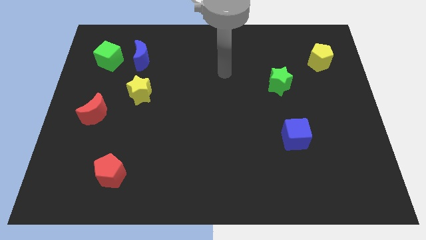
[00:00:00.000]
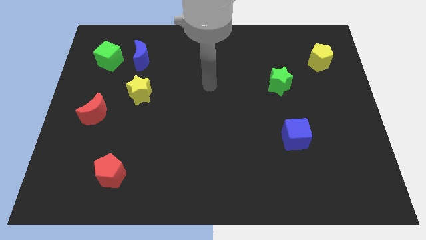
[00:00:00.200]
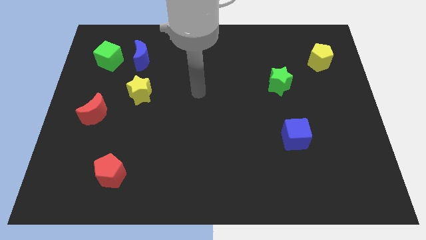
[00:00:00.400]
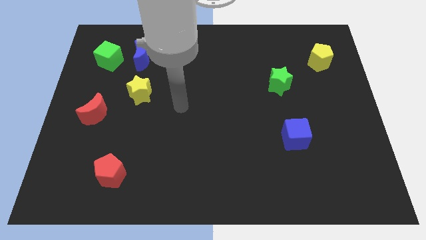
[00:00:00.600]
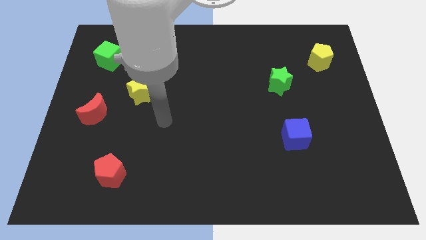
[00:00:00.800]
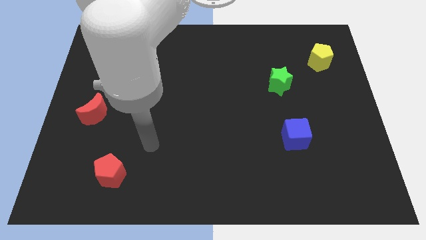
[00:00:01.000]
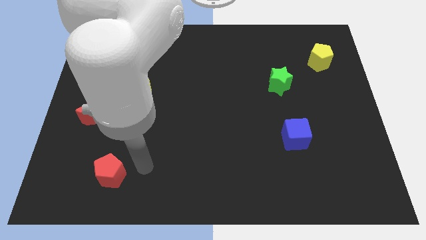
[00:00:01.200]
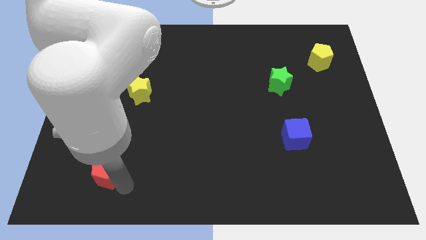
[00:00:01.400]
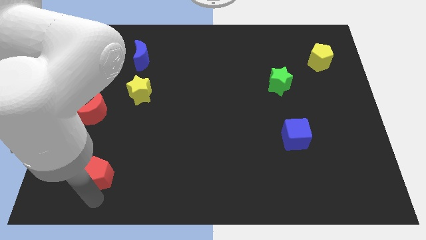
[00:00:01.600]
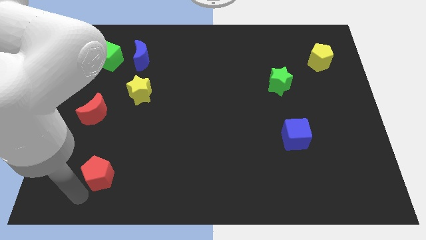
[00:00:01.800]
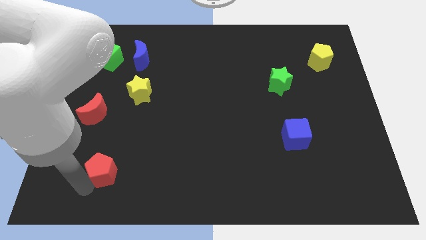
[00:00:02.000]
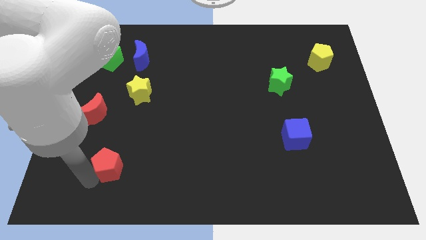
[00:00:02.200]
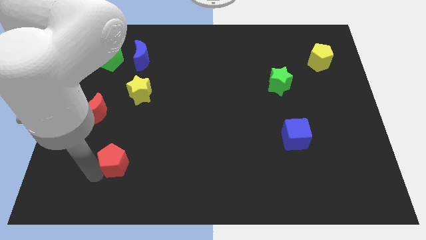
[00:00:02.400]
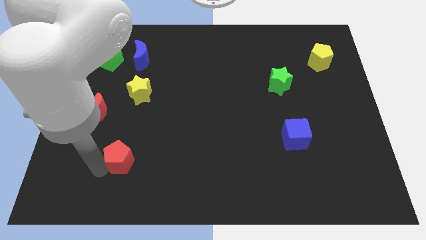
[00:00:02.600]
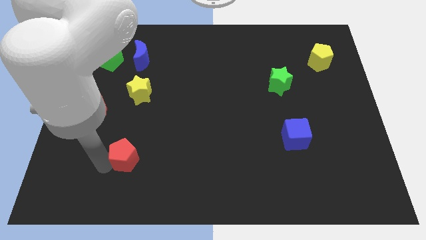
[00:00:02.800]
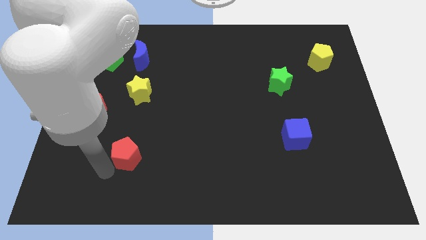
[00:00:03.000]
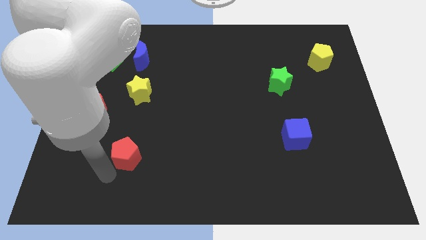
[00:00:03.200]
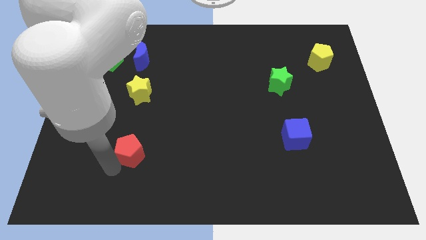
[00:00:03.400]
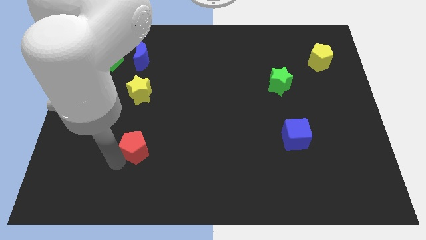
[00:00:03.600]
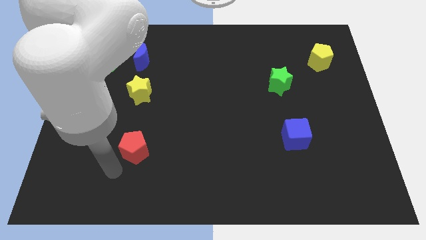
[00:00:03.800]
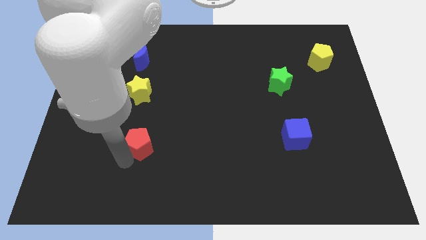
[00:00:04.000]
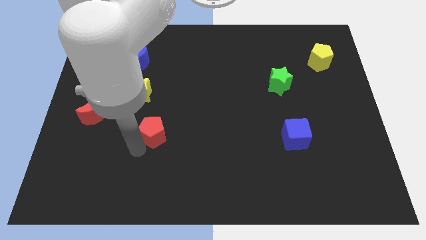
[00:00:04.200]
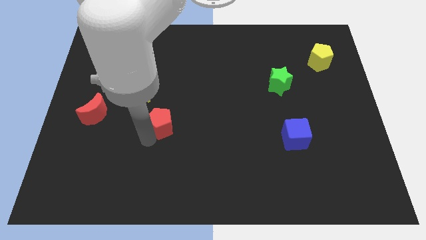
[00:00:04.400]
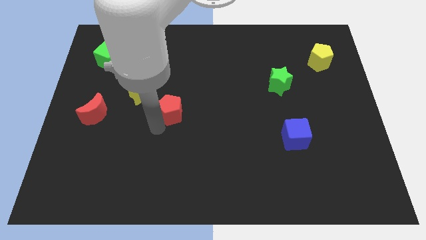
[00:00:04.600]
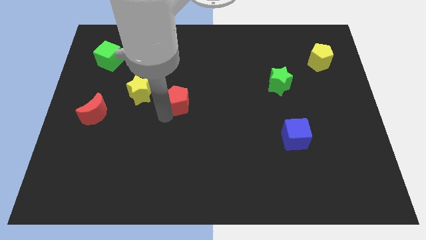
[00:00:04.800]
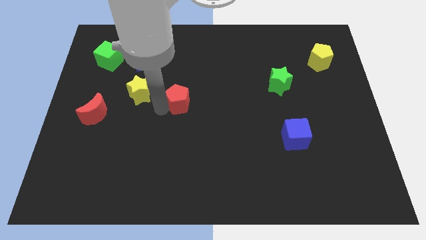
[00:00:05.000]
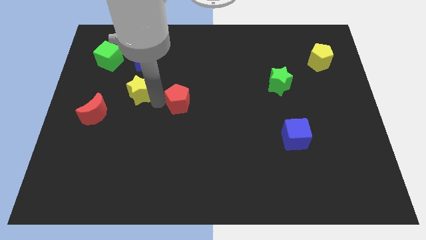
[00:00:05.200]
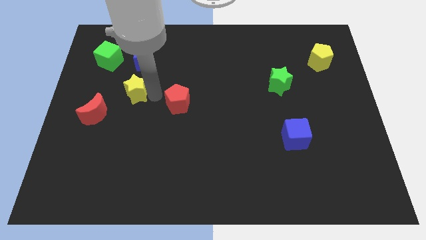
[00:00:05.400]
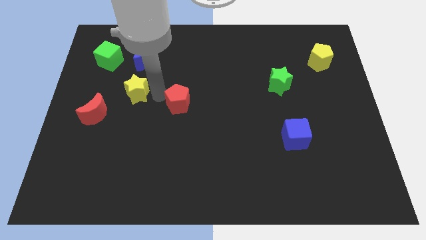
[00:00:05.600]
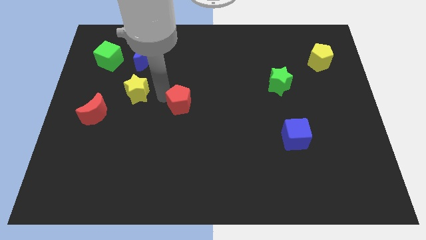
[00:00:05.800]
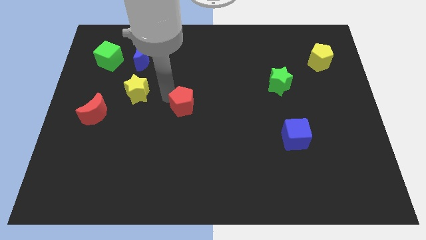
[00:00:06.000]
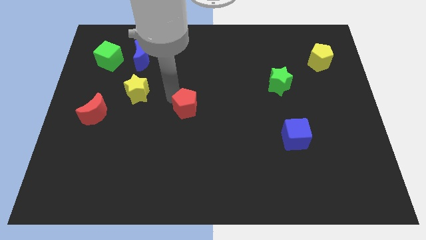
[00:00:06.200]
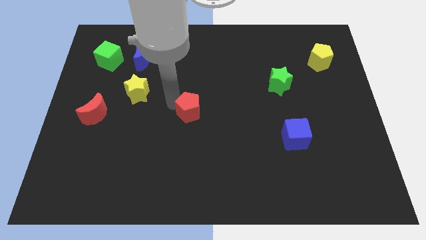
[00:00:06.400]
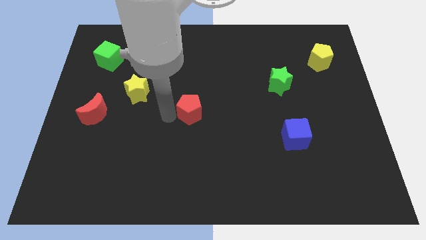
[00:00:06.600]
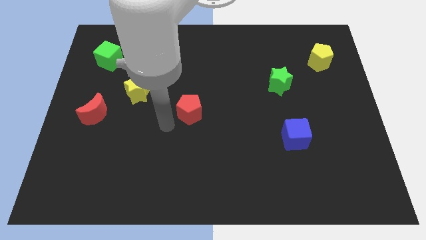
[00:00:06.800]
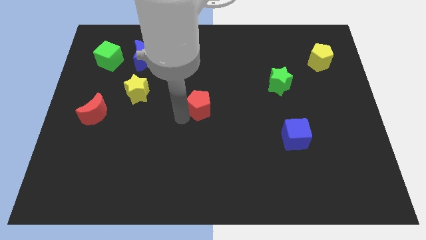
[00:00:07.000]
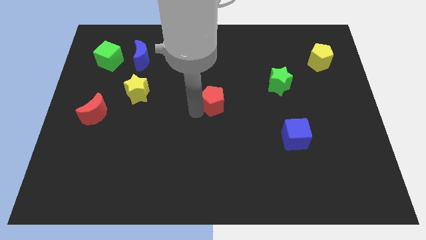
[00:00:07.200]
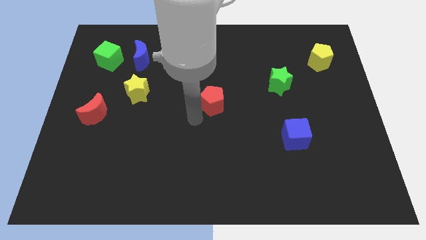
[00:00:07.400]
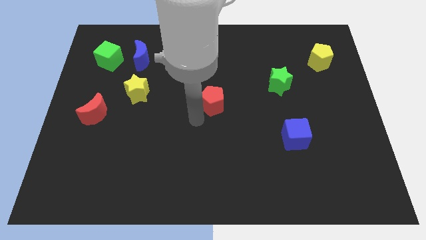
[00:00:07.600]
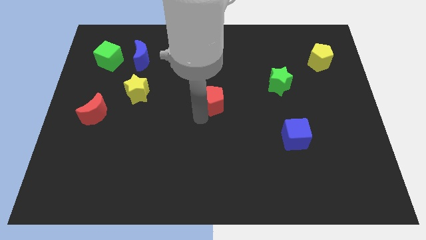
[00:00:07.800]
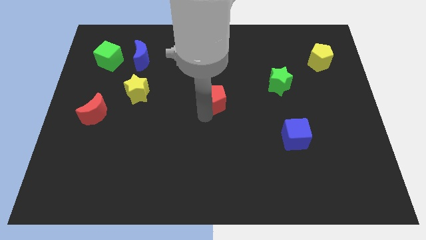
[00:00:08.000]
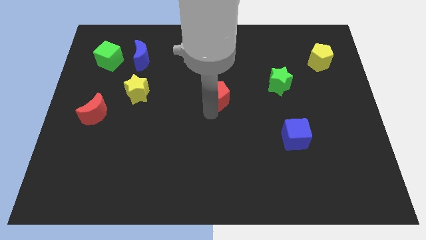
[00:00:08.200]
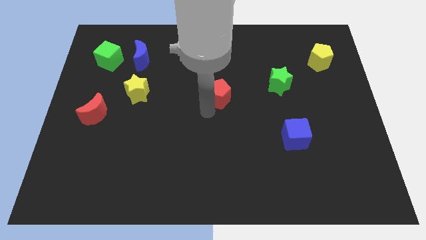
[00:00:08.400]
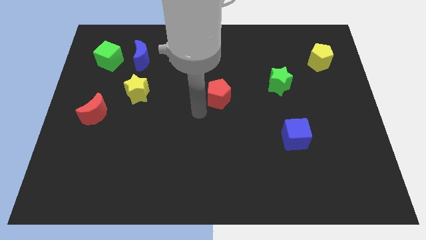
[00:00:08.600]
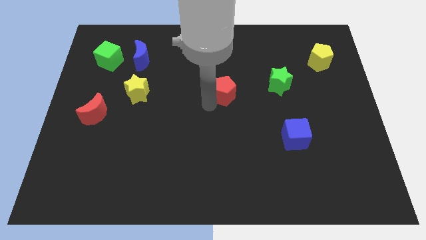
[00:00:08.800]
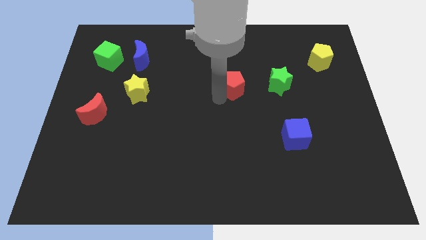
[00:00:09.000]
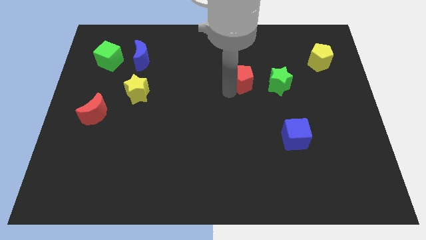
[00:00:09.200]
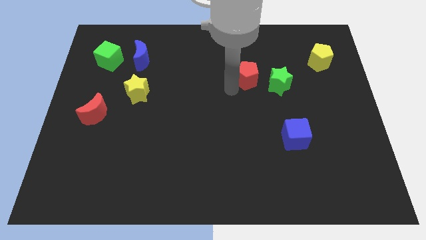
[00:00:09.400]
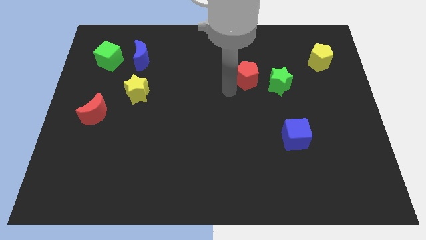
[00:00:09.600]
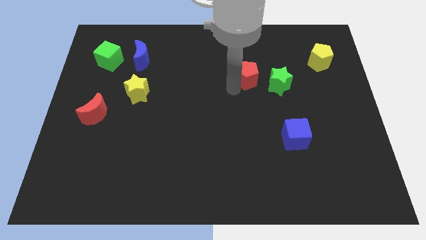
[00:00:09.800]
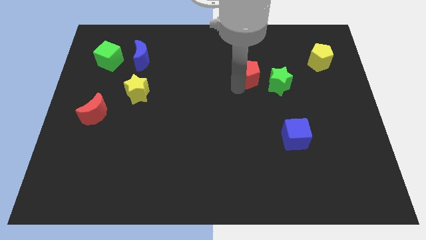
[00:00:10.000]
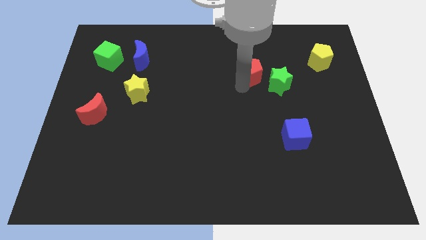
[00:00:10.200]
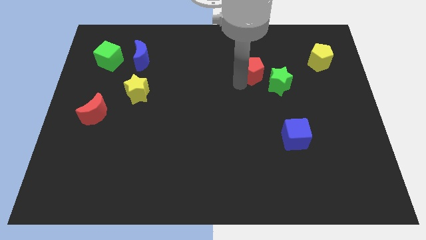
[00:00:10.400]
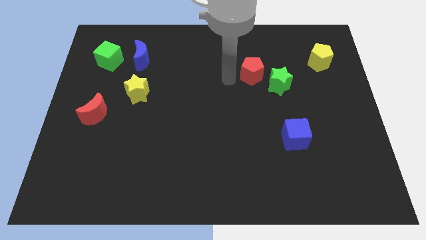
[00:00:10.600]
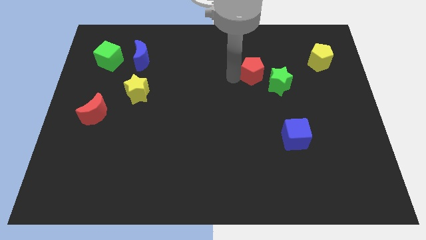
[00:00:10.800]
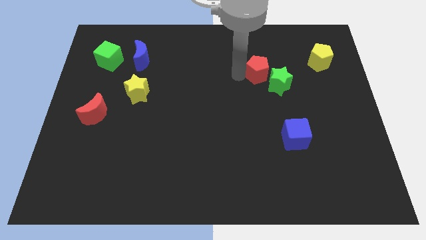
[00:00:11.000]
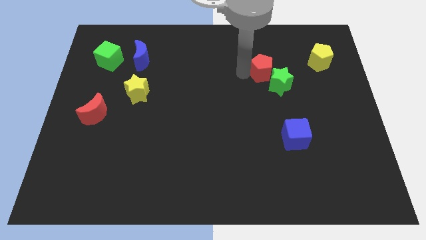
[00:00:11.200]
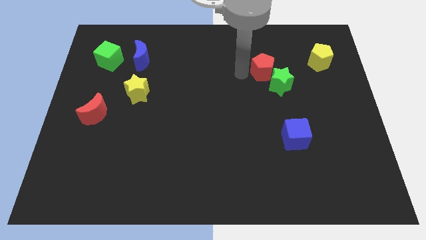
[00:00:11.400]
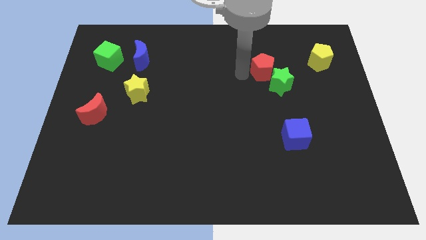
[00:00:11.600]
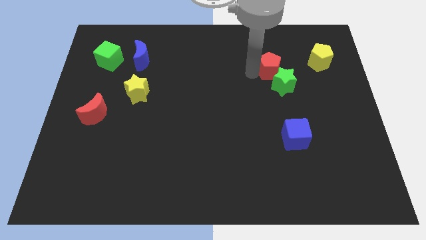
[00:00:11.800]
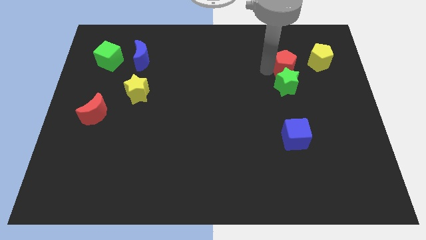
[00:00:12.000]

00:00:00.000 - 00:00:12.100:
slide the red pentagon to the top right of the green star

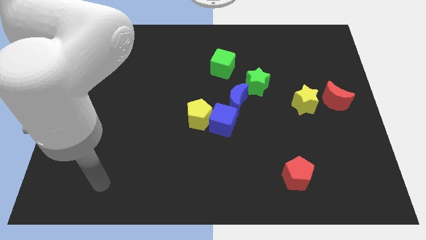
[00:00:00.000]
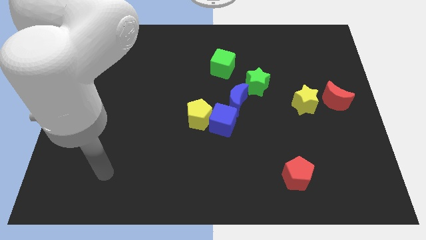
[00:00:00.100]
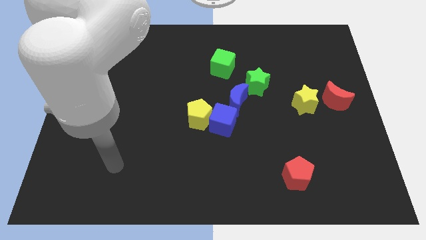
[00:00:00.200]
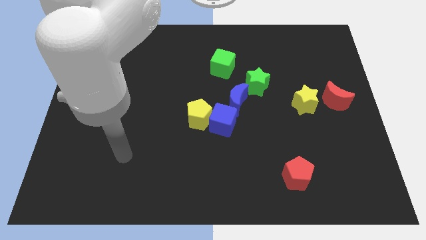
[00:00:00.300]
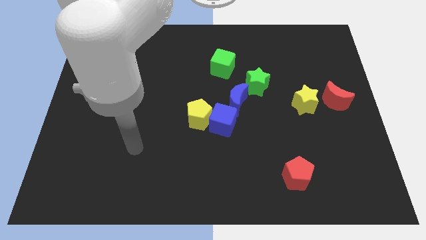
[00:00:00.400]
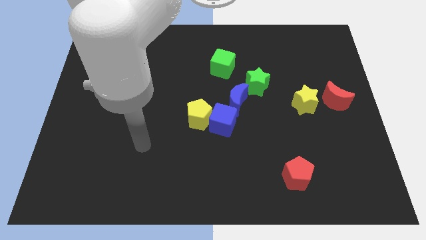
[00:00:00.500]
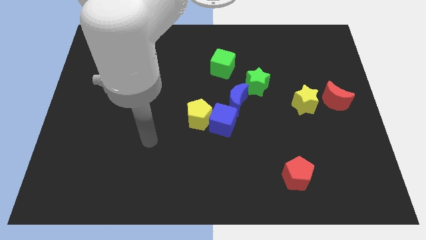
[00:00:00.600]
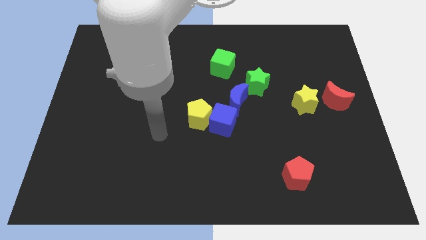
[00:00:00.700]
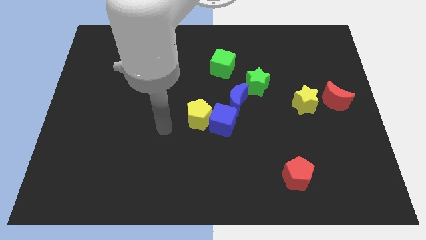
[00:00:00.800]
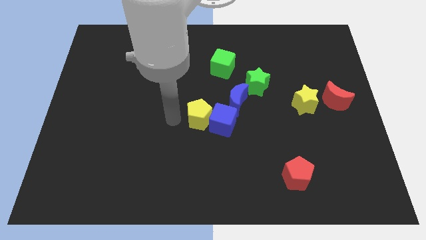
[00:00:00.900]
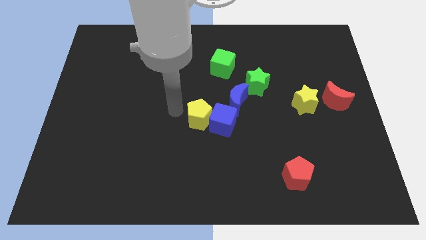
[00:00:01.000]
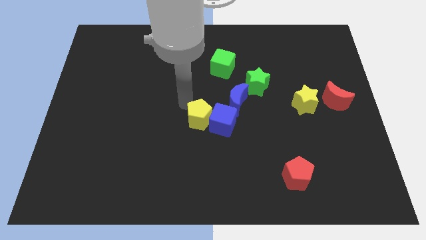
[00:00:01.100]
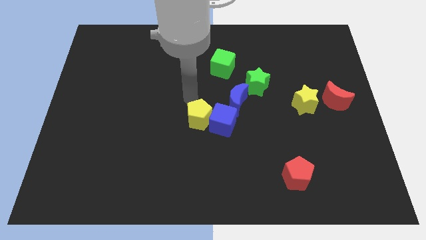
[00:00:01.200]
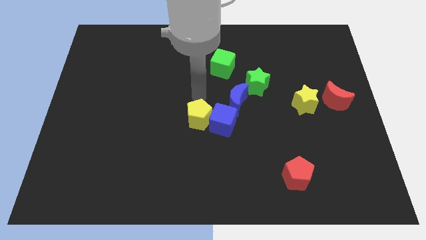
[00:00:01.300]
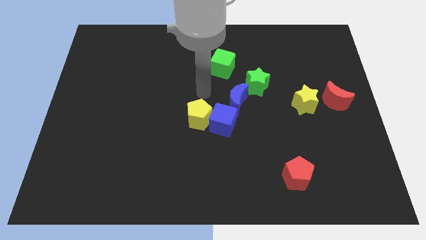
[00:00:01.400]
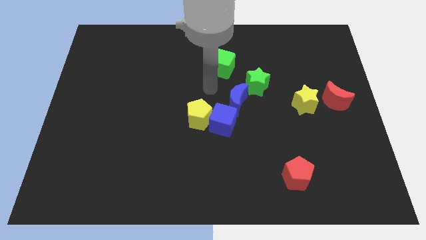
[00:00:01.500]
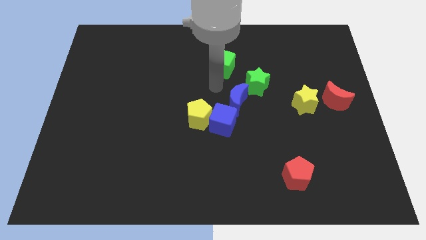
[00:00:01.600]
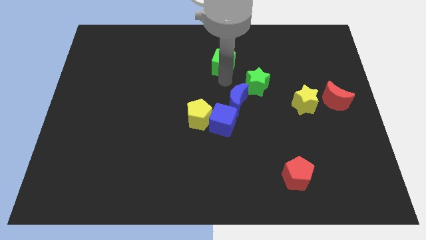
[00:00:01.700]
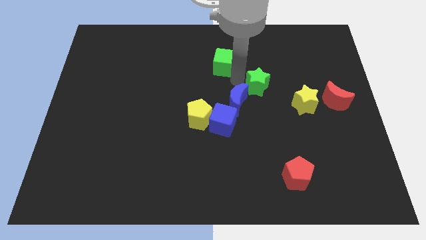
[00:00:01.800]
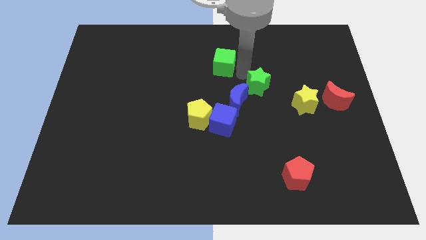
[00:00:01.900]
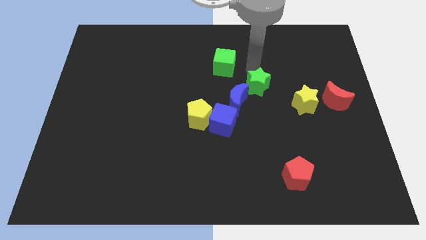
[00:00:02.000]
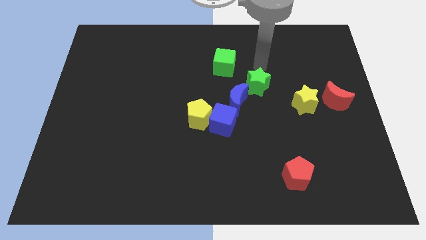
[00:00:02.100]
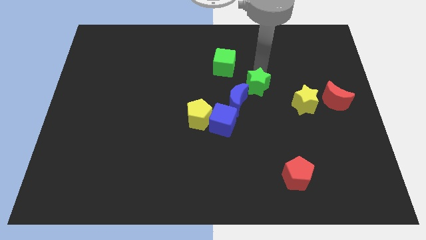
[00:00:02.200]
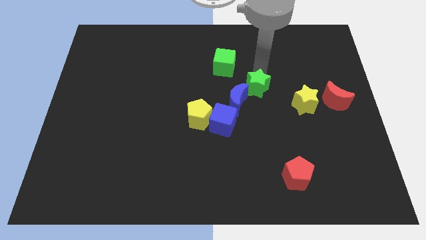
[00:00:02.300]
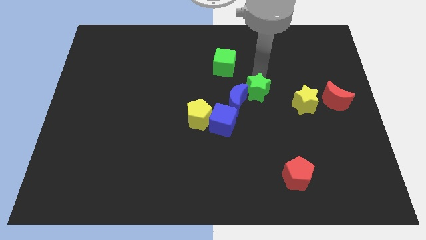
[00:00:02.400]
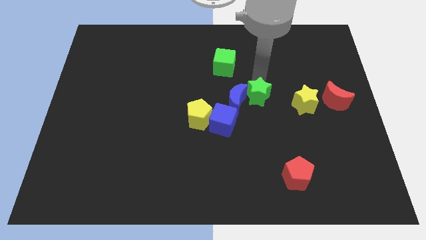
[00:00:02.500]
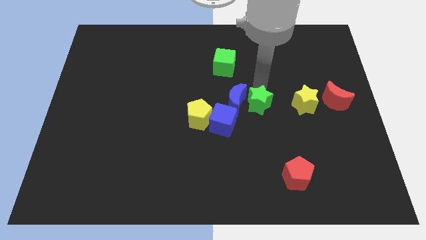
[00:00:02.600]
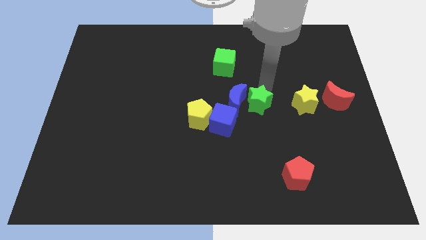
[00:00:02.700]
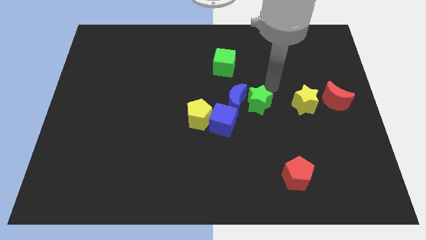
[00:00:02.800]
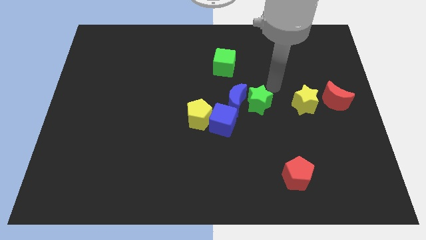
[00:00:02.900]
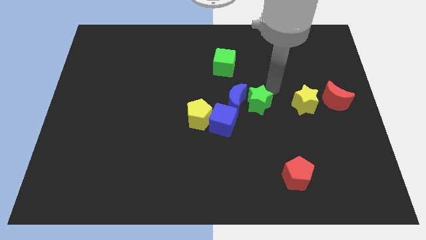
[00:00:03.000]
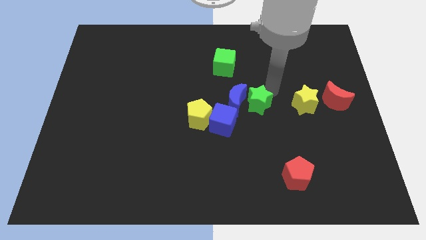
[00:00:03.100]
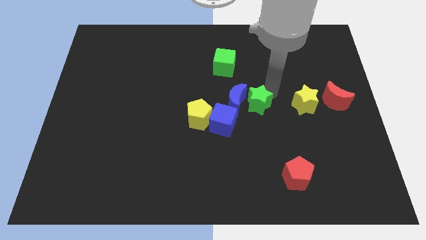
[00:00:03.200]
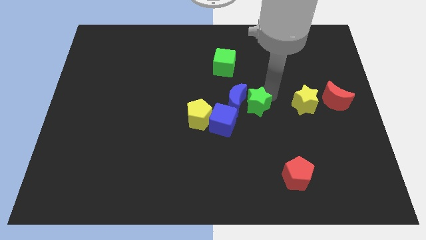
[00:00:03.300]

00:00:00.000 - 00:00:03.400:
put the green star just right of the yellow pentagon
